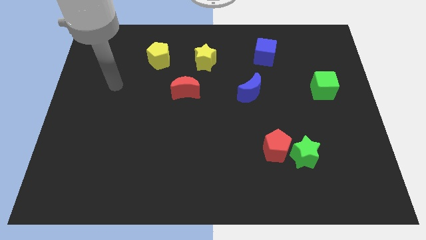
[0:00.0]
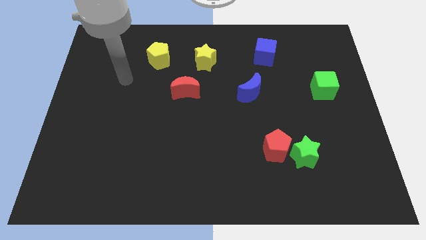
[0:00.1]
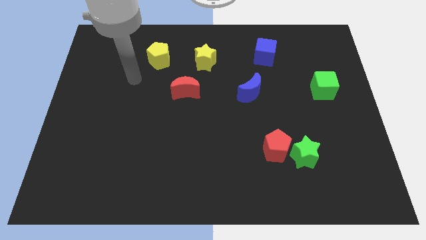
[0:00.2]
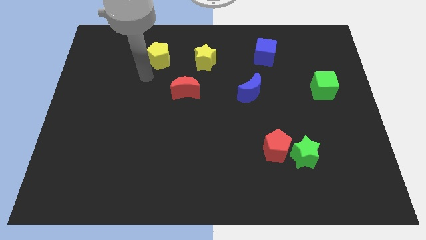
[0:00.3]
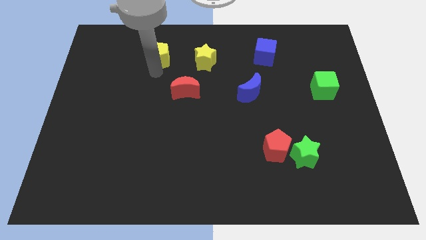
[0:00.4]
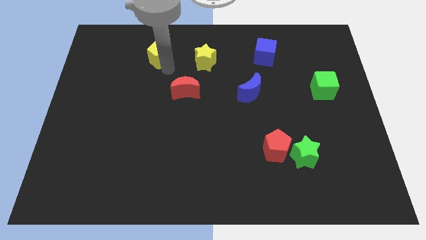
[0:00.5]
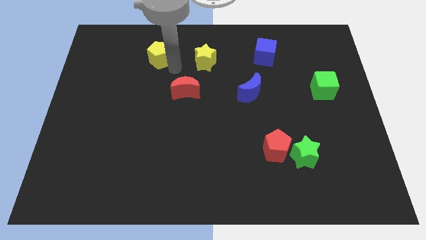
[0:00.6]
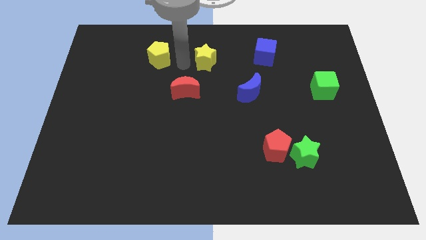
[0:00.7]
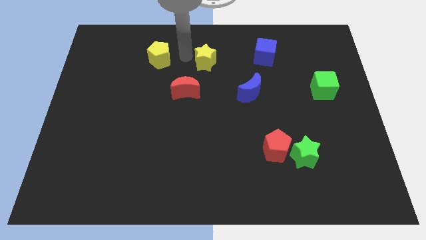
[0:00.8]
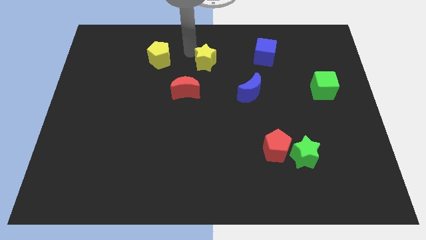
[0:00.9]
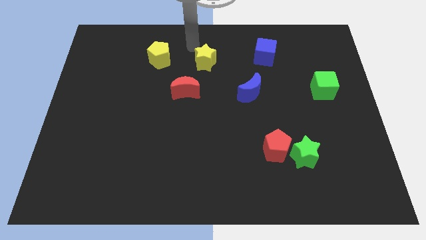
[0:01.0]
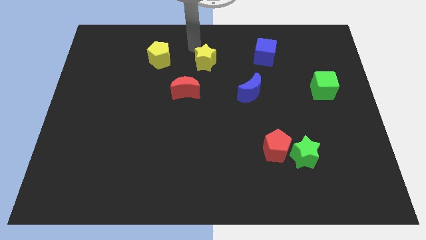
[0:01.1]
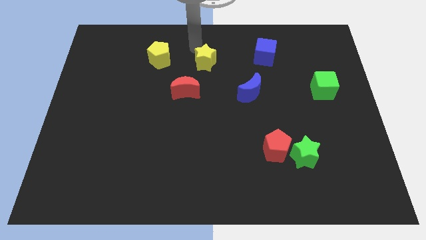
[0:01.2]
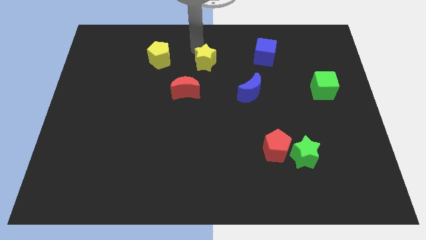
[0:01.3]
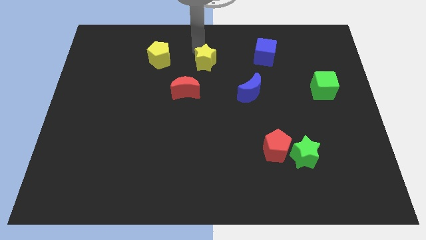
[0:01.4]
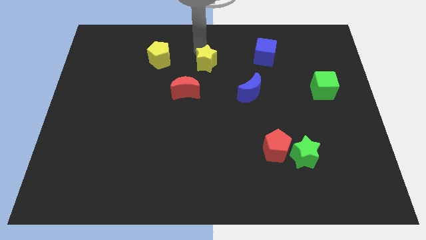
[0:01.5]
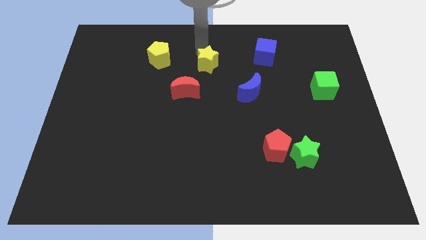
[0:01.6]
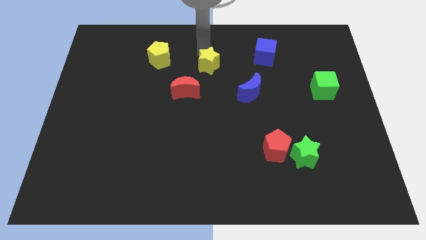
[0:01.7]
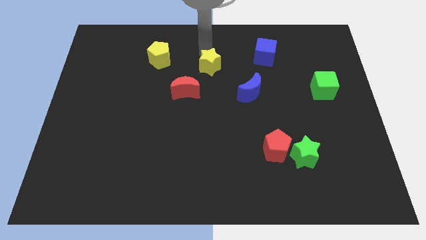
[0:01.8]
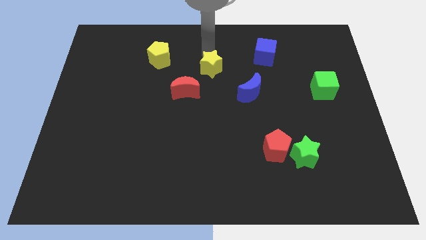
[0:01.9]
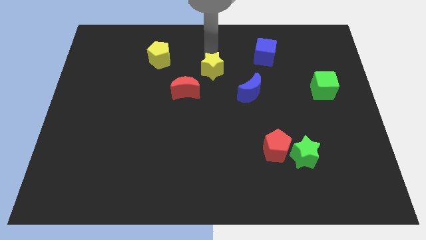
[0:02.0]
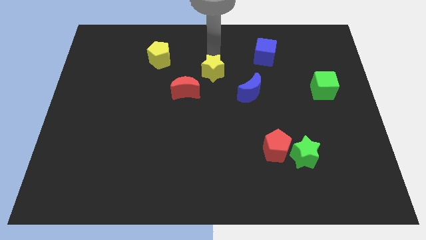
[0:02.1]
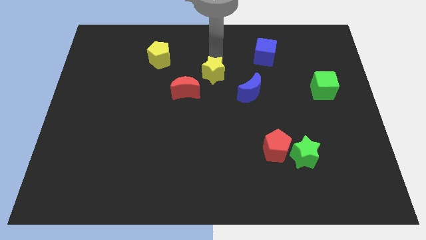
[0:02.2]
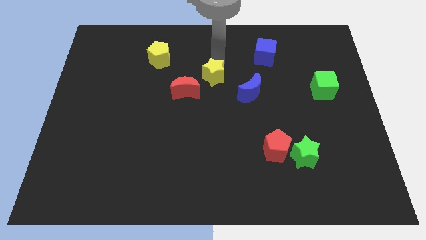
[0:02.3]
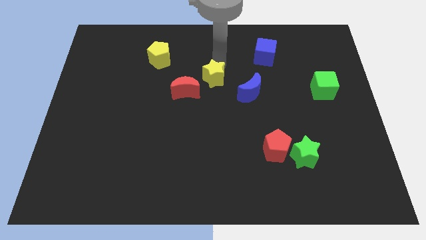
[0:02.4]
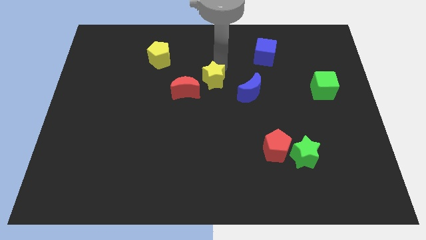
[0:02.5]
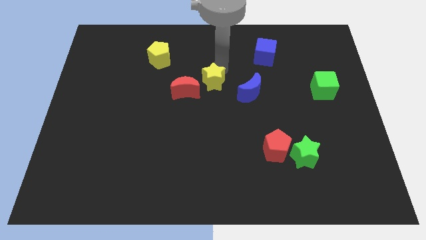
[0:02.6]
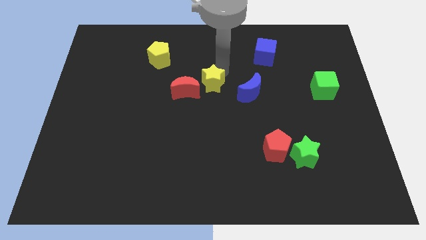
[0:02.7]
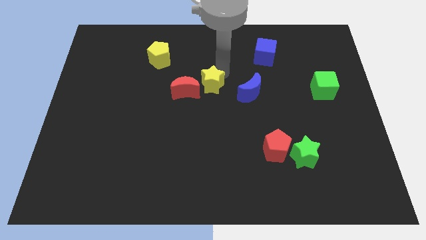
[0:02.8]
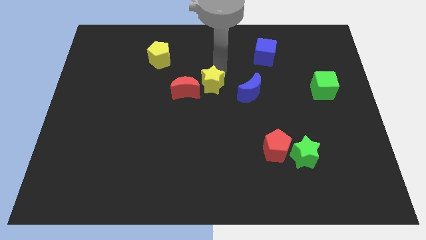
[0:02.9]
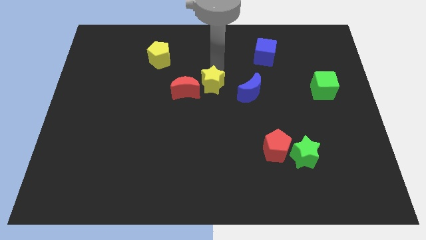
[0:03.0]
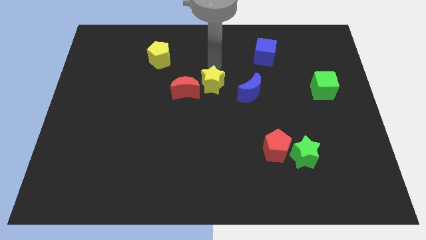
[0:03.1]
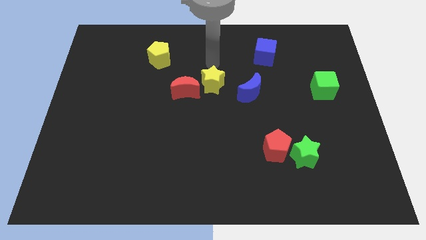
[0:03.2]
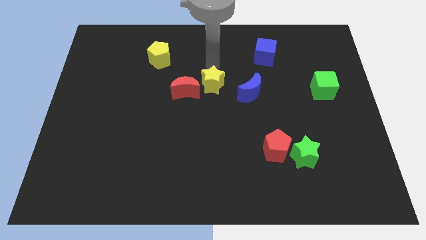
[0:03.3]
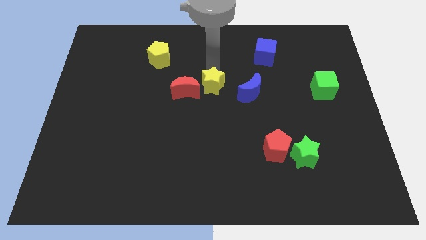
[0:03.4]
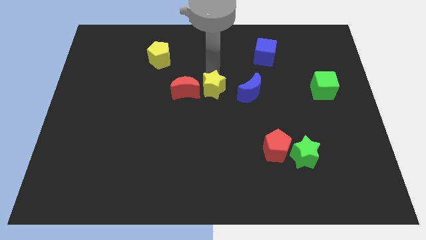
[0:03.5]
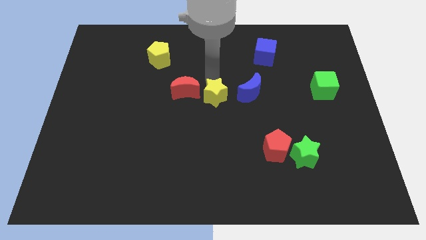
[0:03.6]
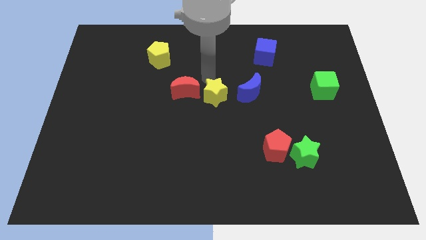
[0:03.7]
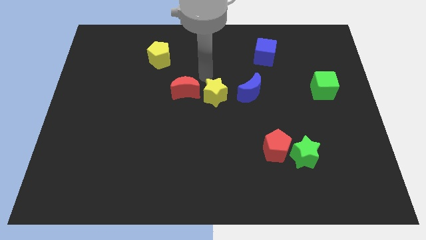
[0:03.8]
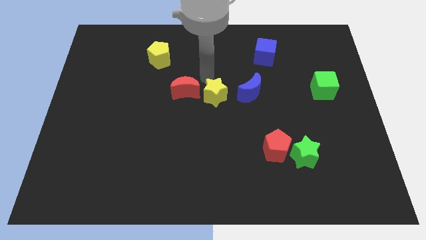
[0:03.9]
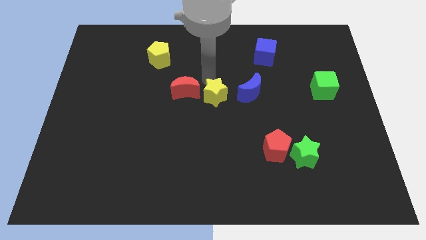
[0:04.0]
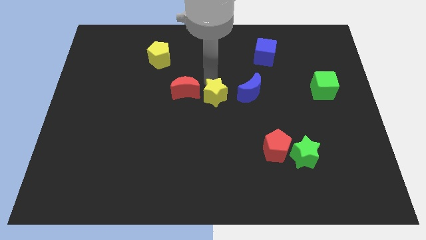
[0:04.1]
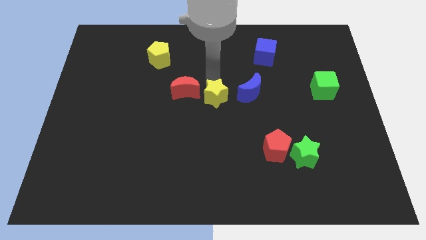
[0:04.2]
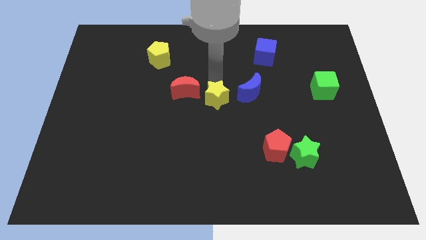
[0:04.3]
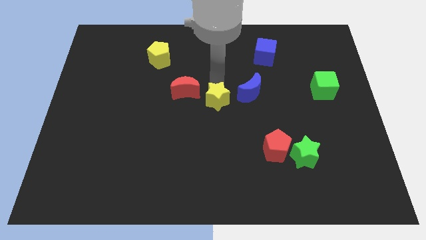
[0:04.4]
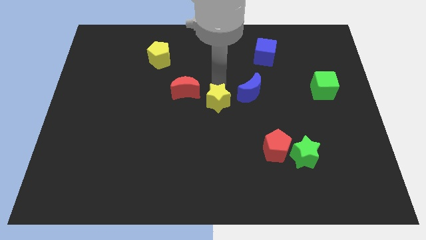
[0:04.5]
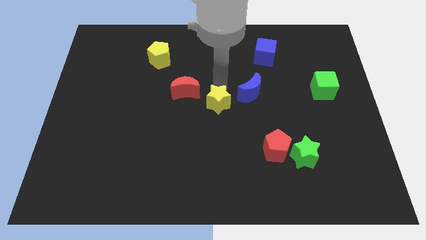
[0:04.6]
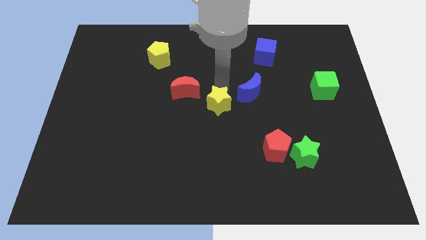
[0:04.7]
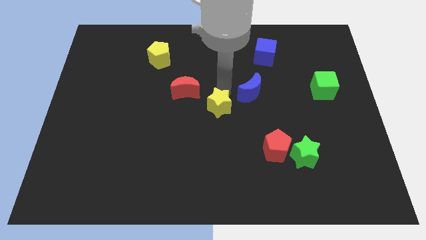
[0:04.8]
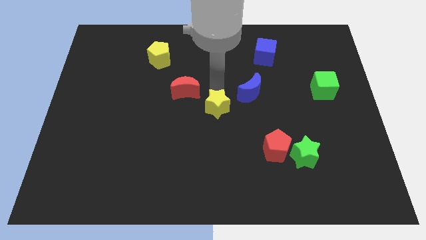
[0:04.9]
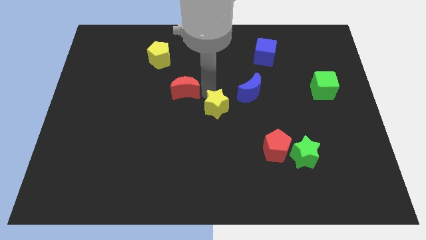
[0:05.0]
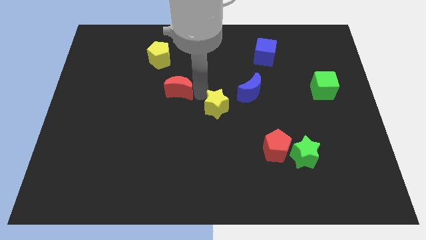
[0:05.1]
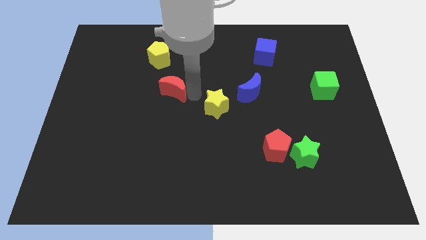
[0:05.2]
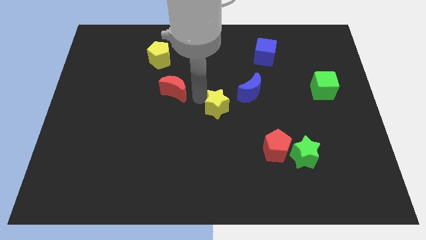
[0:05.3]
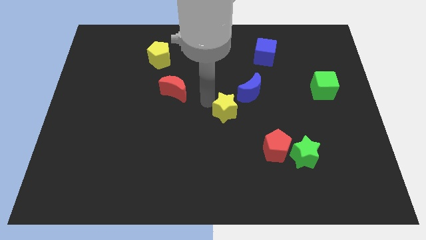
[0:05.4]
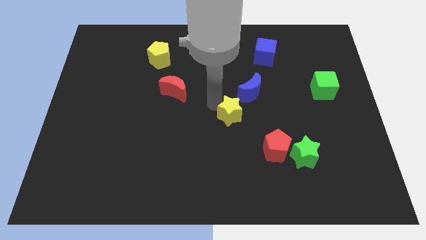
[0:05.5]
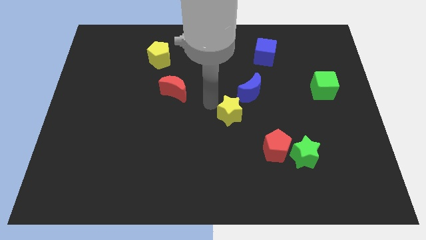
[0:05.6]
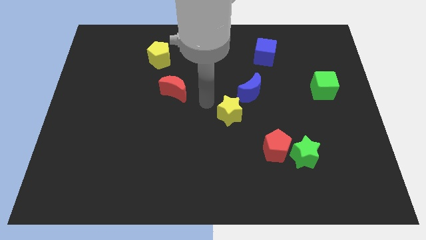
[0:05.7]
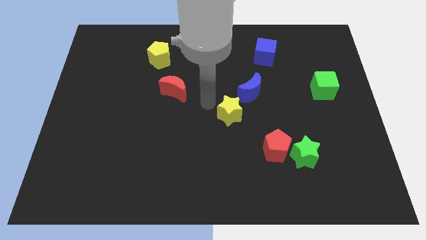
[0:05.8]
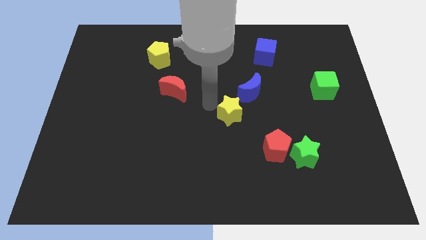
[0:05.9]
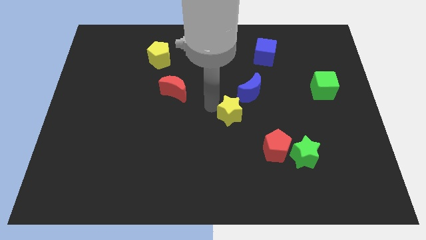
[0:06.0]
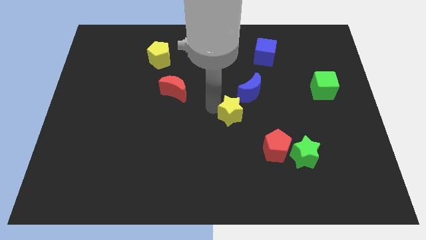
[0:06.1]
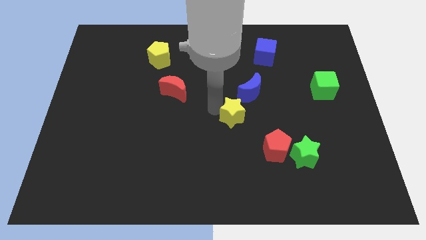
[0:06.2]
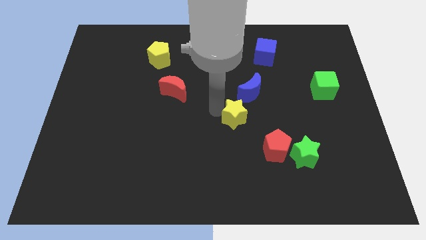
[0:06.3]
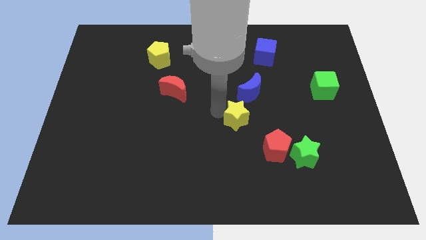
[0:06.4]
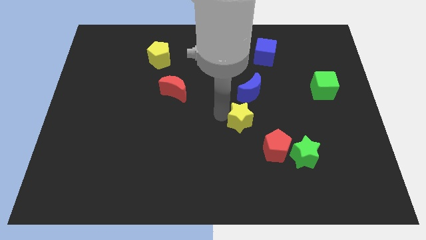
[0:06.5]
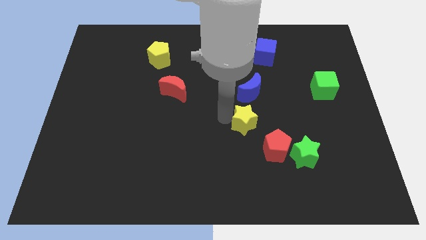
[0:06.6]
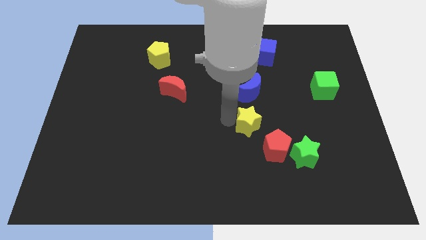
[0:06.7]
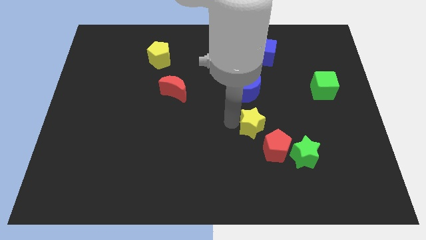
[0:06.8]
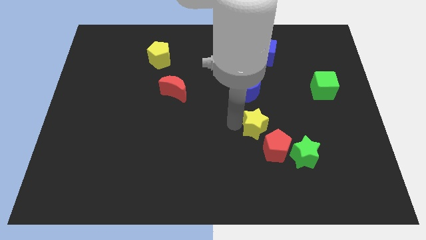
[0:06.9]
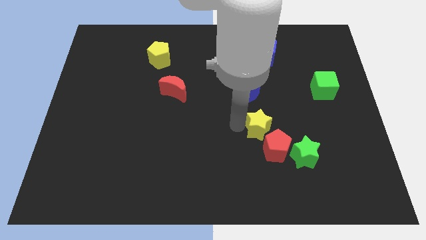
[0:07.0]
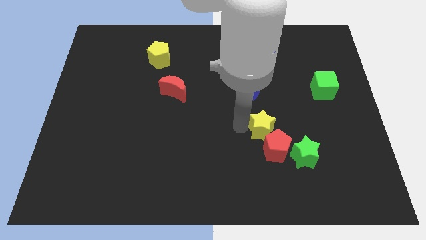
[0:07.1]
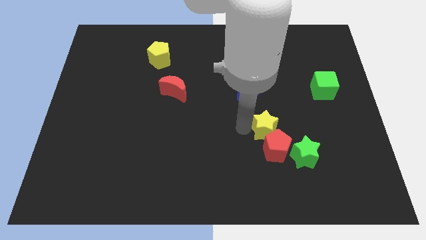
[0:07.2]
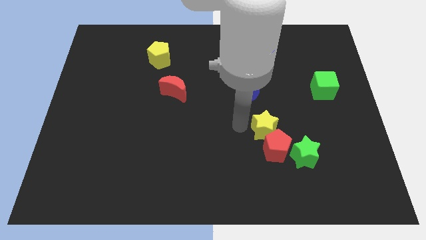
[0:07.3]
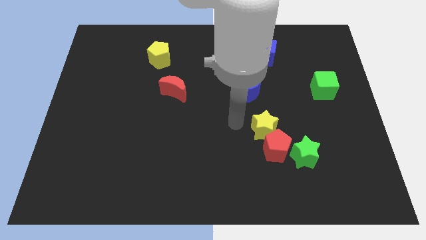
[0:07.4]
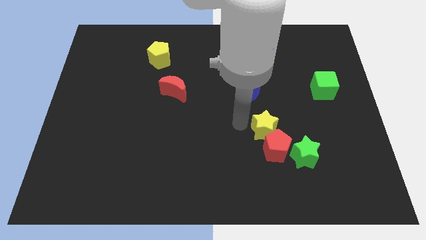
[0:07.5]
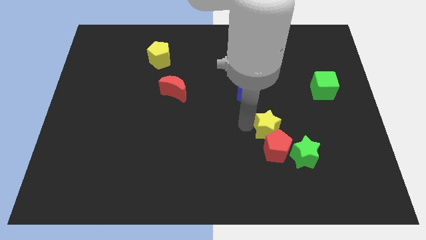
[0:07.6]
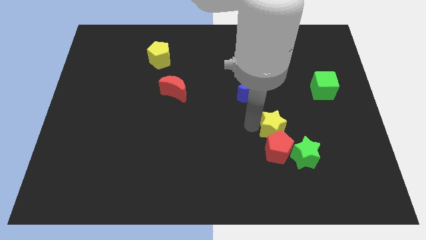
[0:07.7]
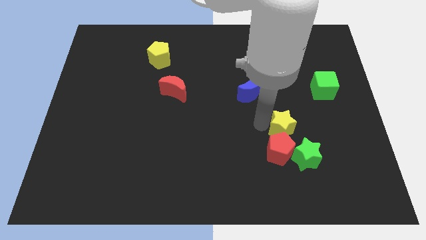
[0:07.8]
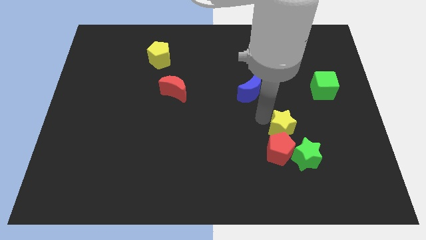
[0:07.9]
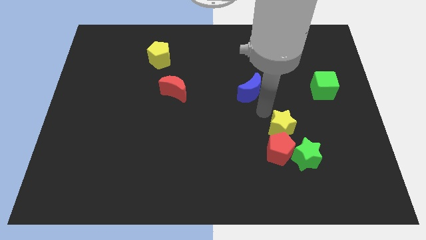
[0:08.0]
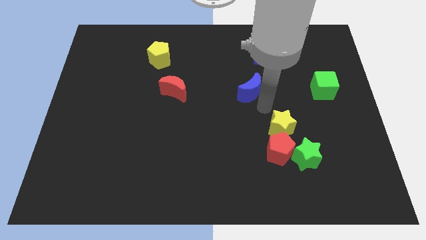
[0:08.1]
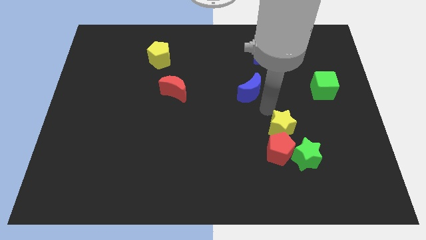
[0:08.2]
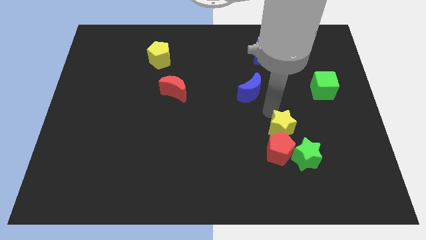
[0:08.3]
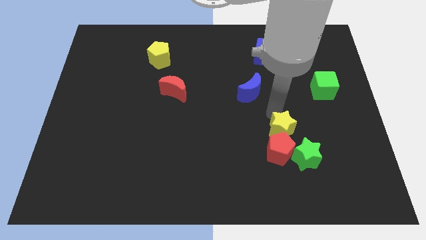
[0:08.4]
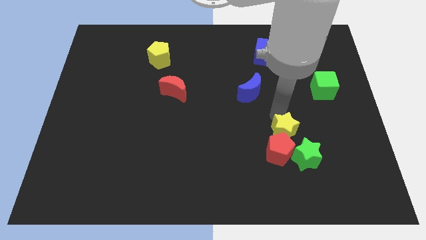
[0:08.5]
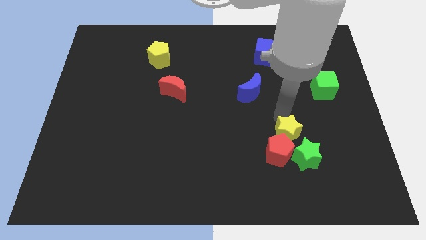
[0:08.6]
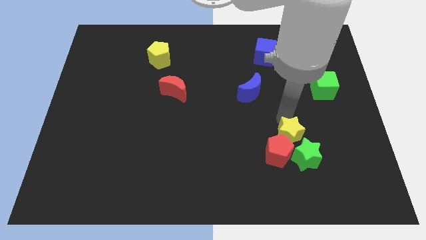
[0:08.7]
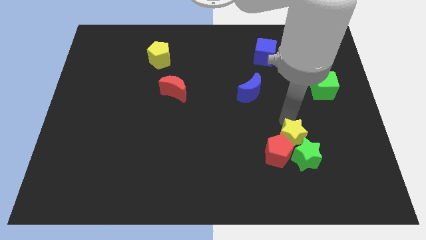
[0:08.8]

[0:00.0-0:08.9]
push the yellow star to the green star
